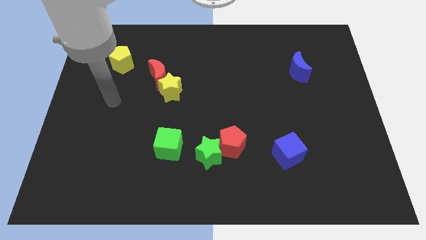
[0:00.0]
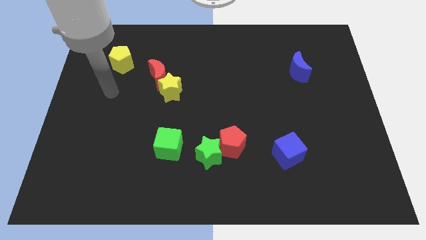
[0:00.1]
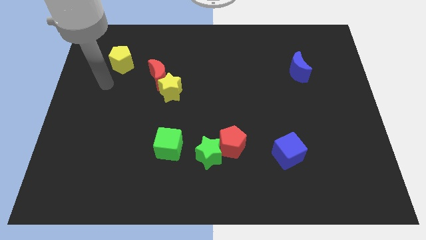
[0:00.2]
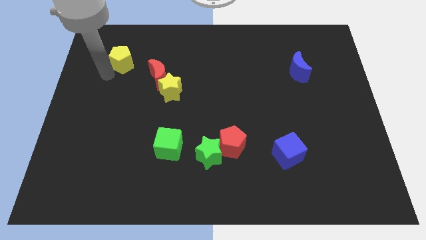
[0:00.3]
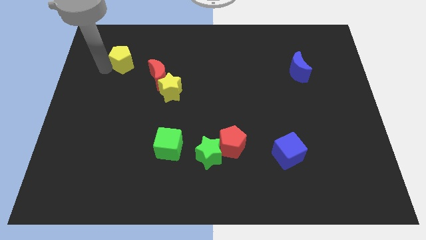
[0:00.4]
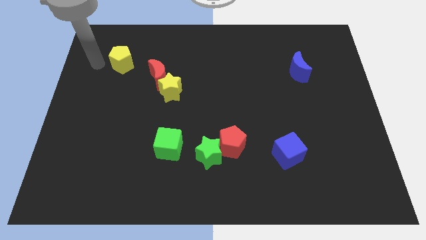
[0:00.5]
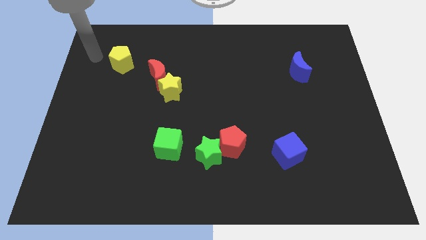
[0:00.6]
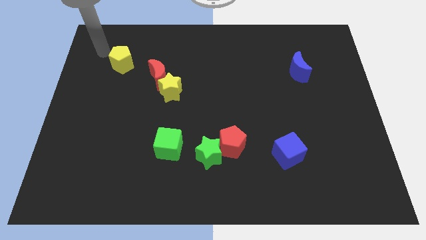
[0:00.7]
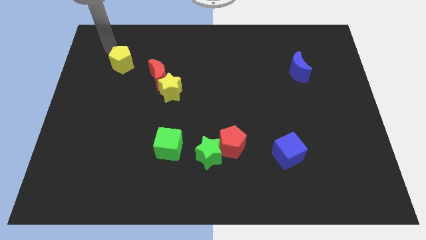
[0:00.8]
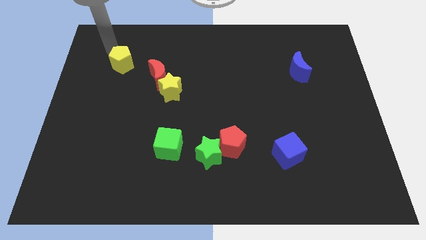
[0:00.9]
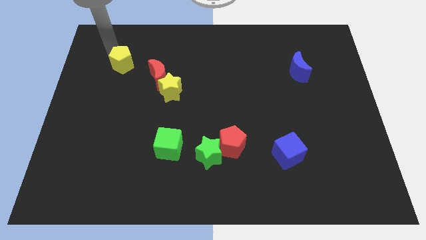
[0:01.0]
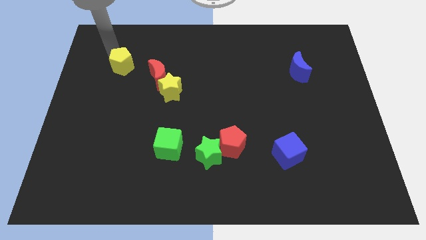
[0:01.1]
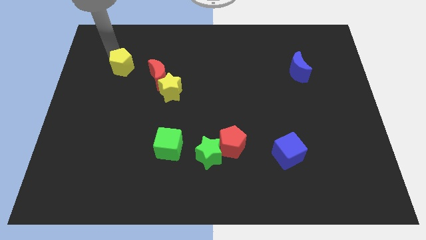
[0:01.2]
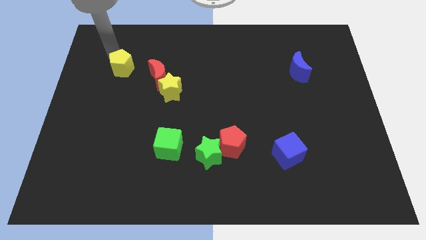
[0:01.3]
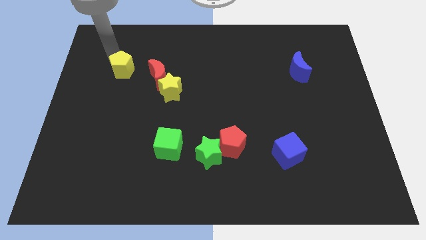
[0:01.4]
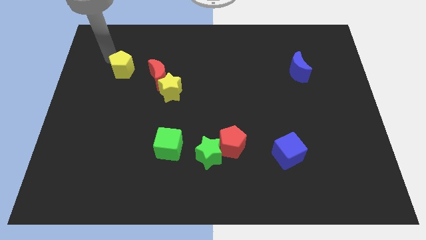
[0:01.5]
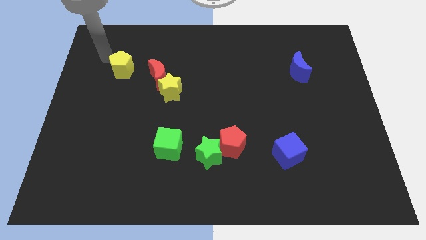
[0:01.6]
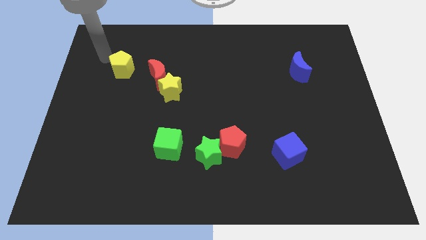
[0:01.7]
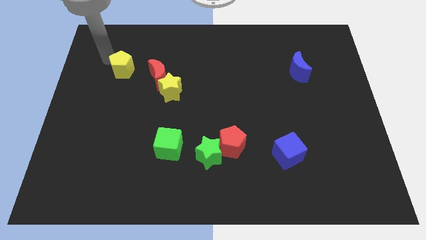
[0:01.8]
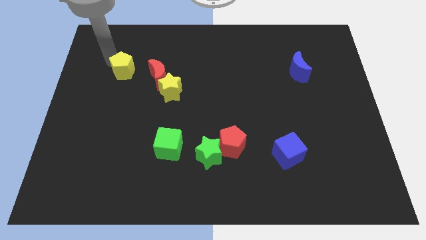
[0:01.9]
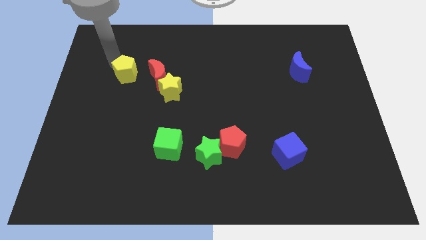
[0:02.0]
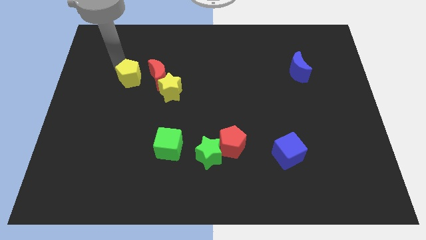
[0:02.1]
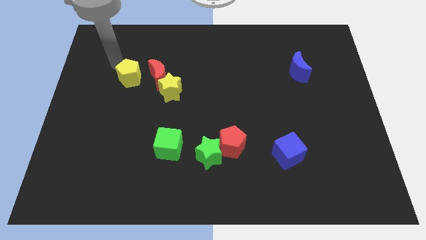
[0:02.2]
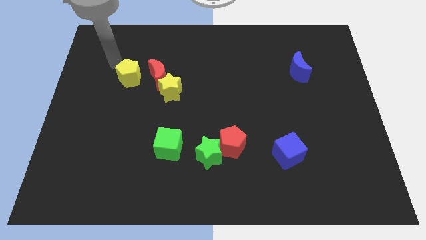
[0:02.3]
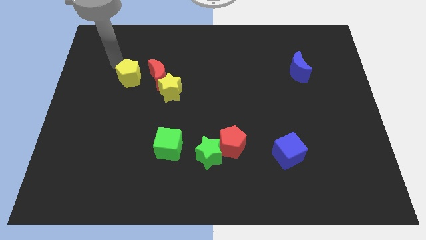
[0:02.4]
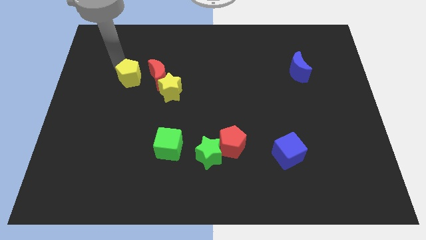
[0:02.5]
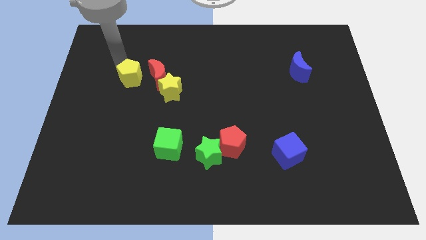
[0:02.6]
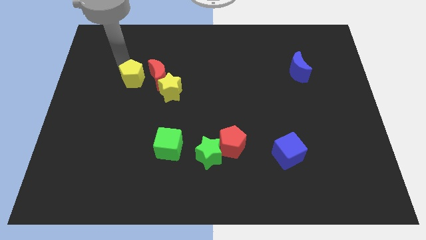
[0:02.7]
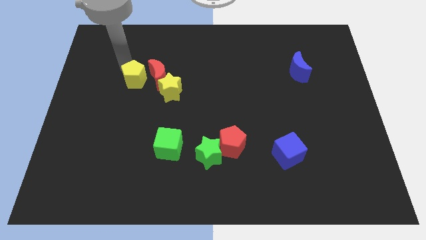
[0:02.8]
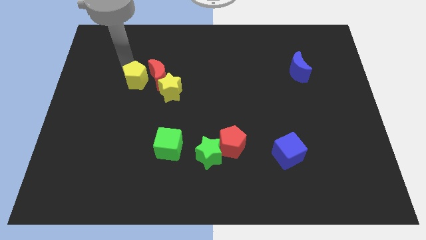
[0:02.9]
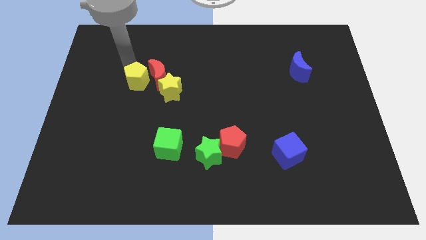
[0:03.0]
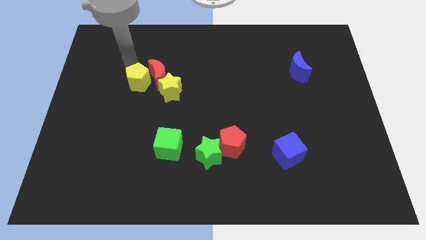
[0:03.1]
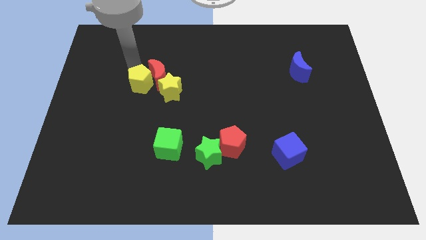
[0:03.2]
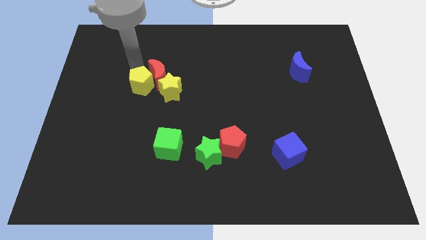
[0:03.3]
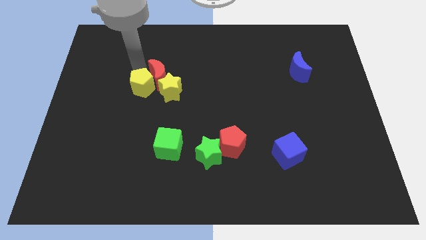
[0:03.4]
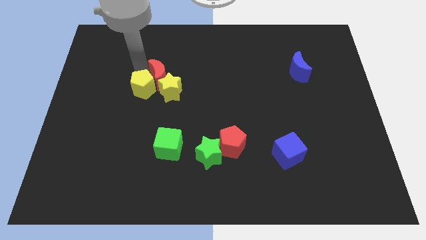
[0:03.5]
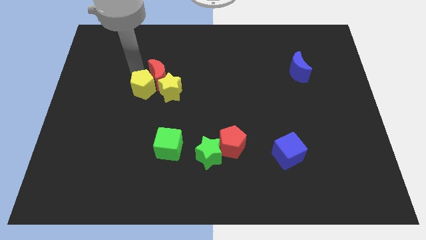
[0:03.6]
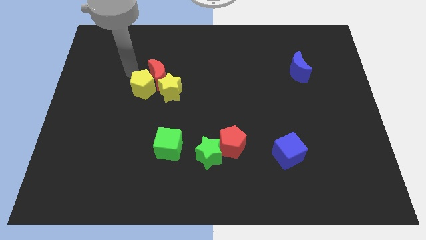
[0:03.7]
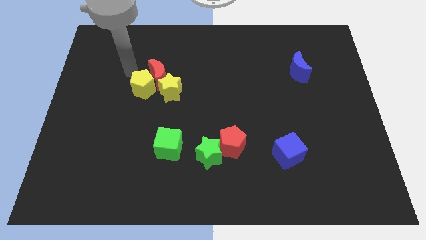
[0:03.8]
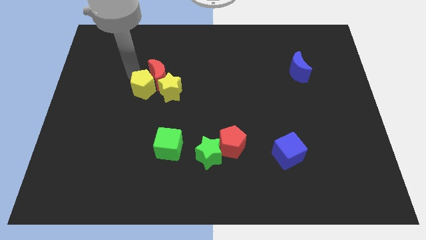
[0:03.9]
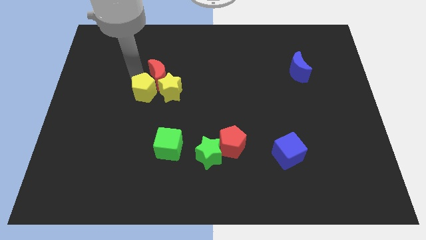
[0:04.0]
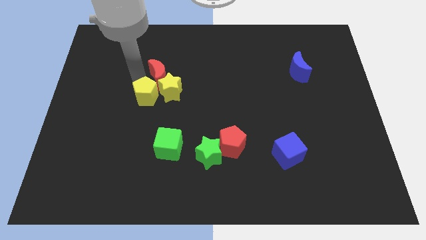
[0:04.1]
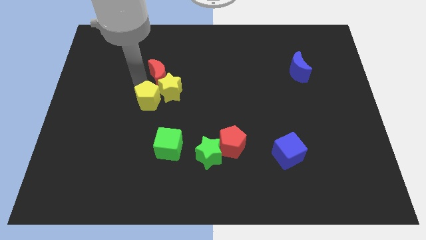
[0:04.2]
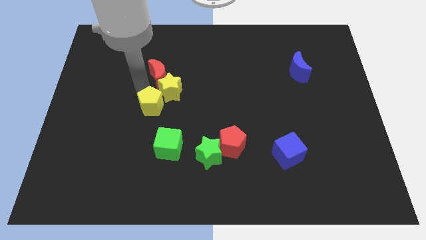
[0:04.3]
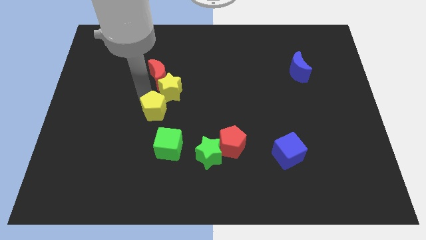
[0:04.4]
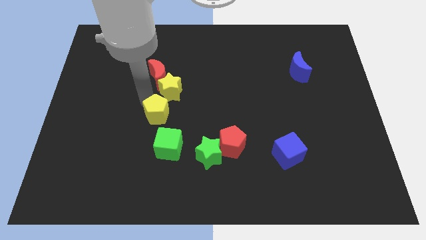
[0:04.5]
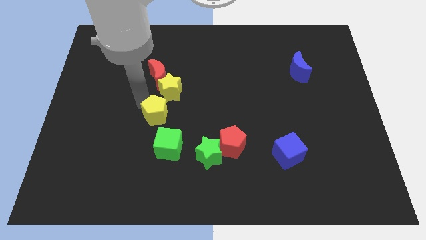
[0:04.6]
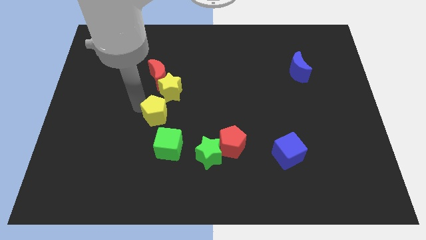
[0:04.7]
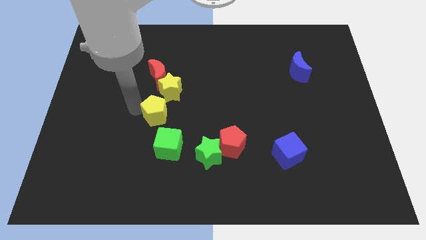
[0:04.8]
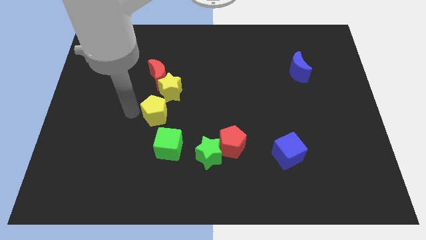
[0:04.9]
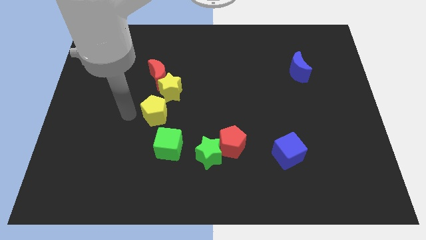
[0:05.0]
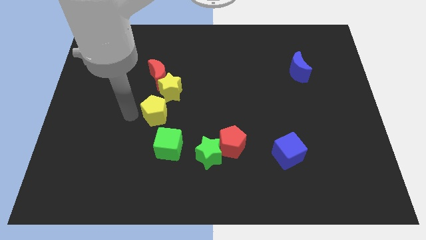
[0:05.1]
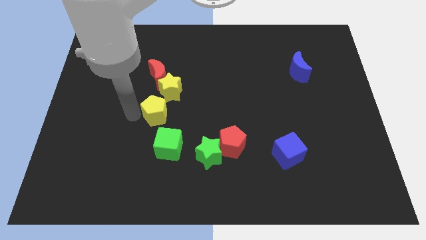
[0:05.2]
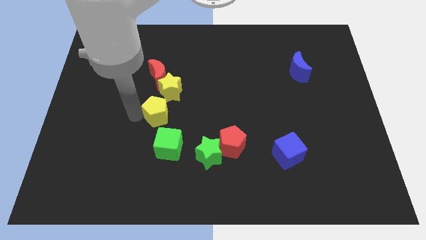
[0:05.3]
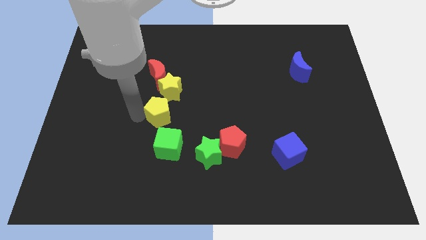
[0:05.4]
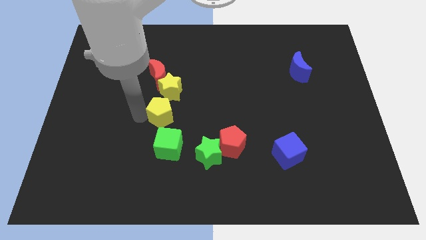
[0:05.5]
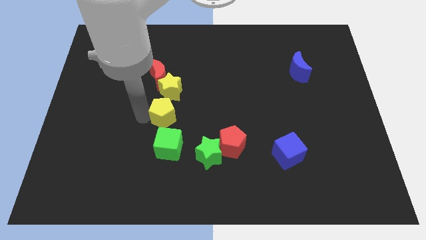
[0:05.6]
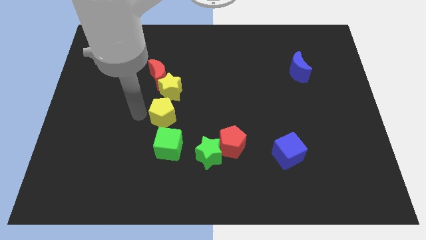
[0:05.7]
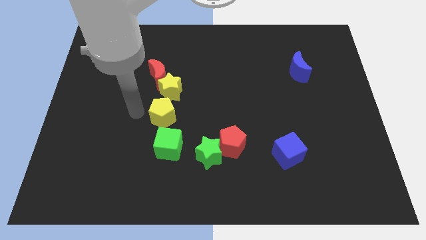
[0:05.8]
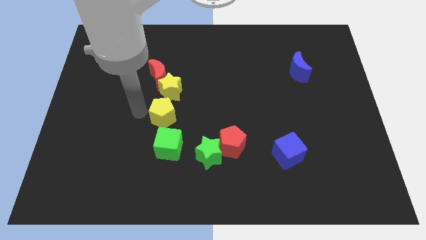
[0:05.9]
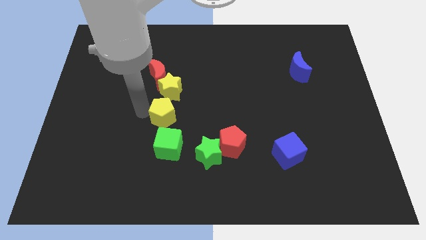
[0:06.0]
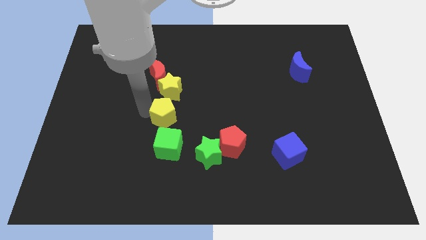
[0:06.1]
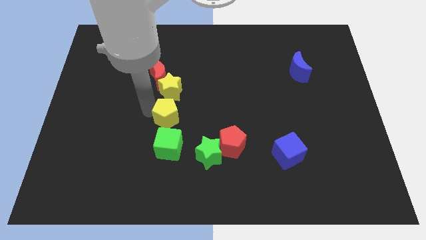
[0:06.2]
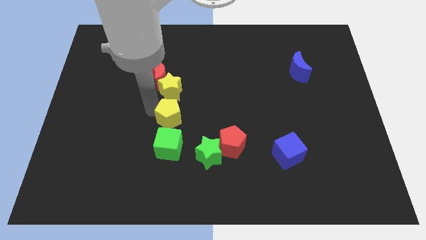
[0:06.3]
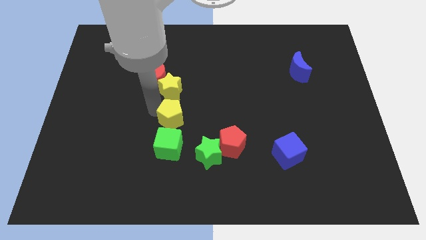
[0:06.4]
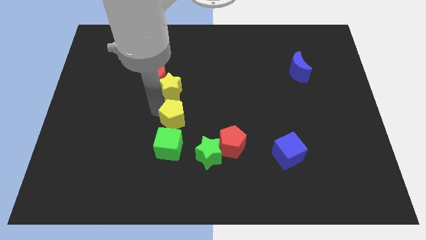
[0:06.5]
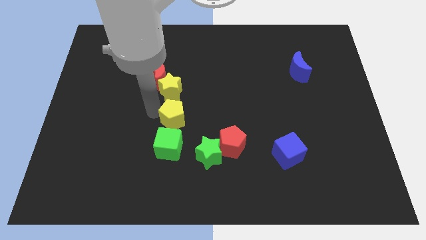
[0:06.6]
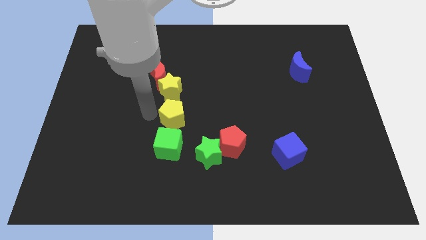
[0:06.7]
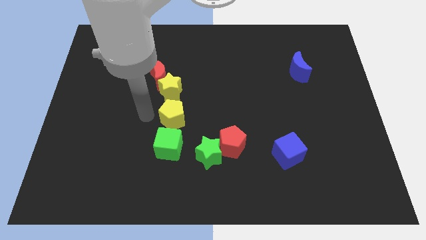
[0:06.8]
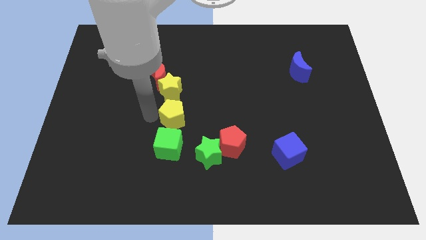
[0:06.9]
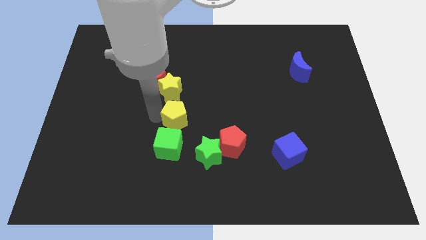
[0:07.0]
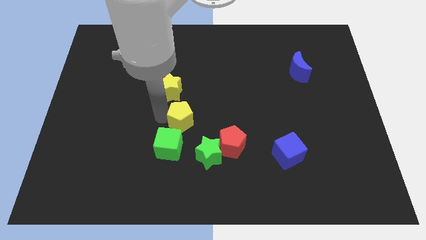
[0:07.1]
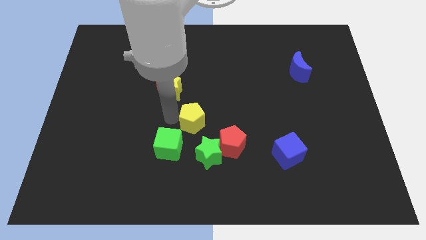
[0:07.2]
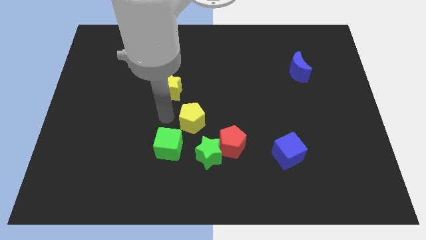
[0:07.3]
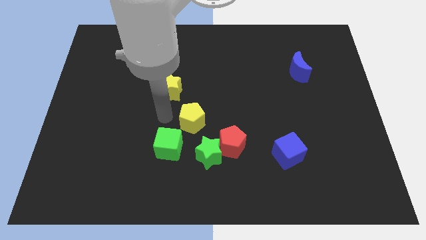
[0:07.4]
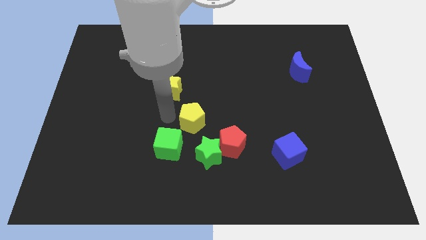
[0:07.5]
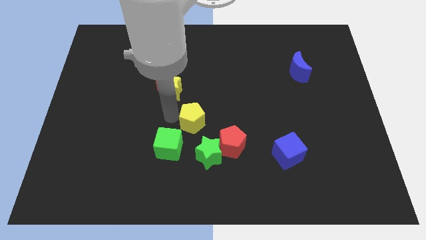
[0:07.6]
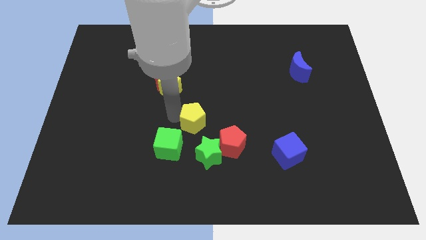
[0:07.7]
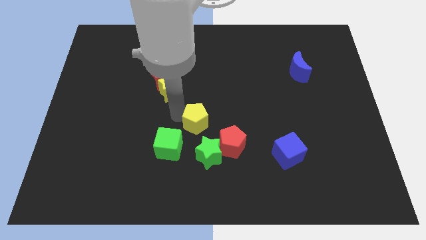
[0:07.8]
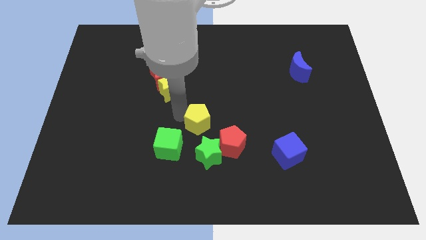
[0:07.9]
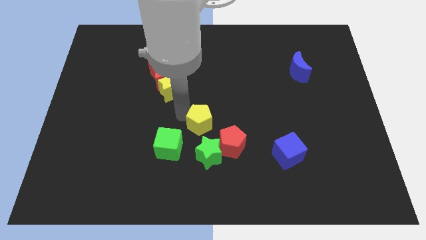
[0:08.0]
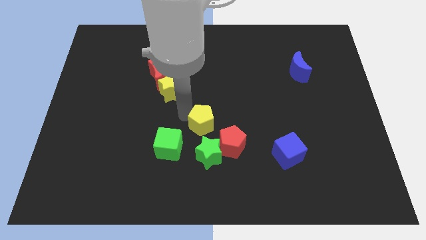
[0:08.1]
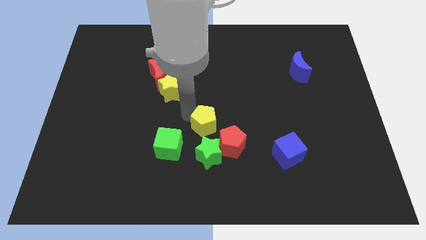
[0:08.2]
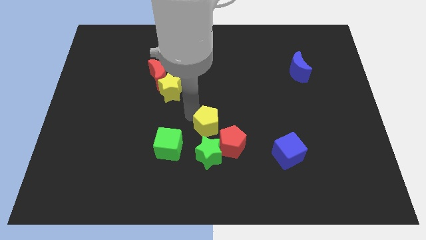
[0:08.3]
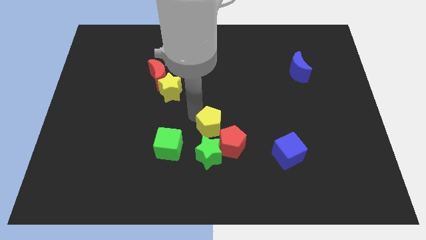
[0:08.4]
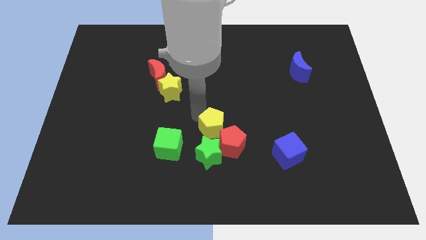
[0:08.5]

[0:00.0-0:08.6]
put the yellow pentagon to the top right of the green star
